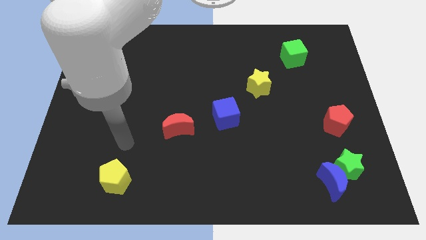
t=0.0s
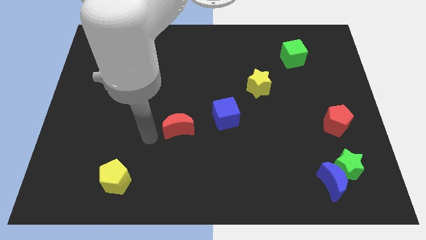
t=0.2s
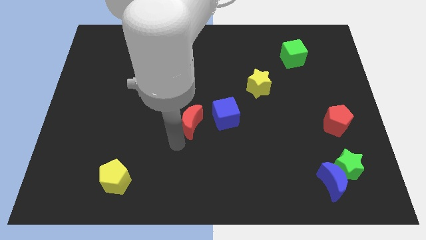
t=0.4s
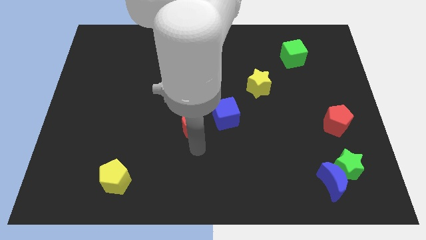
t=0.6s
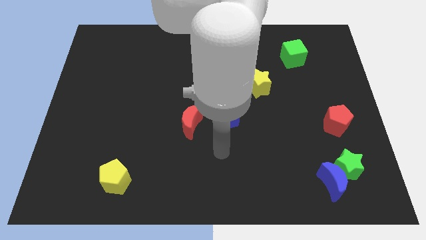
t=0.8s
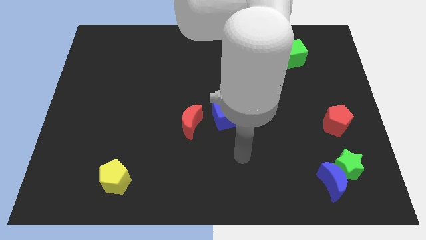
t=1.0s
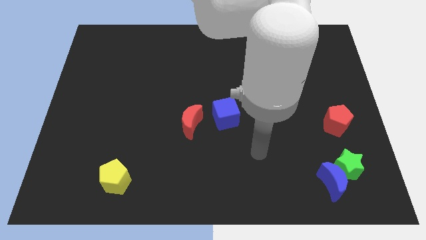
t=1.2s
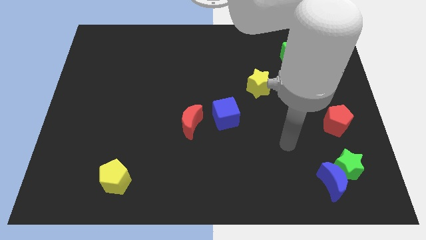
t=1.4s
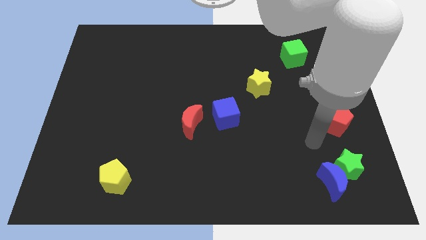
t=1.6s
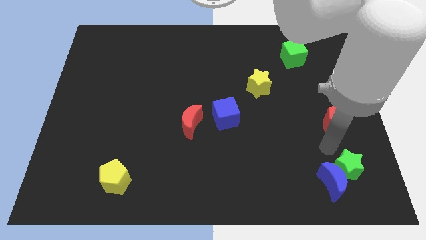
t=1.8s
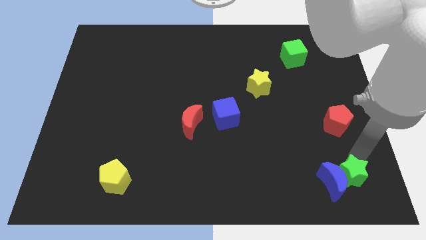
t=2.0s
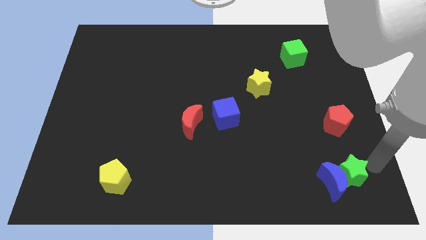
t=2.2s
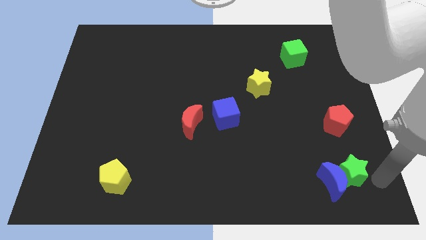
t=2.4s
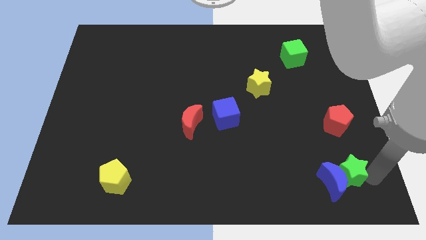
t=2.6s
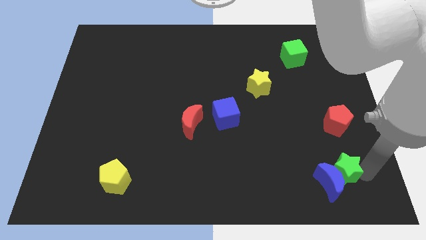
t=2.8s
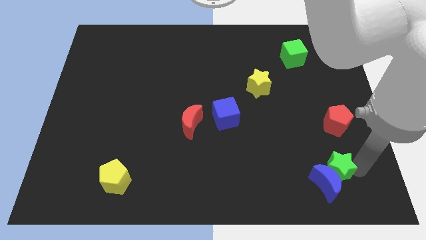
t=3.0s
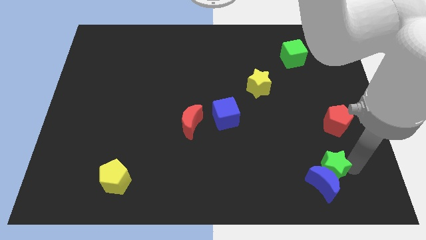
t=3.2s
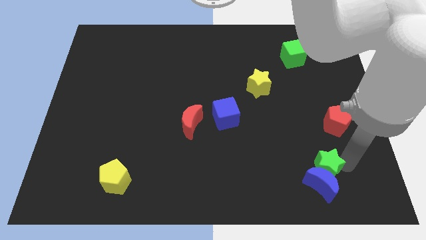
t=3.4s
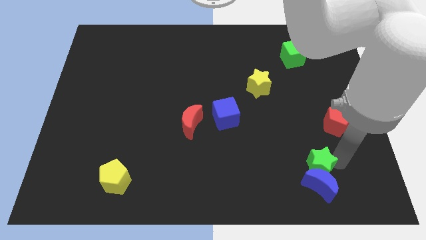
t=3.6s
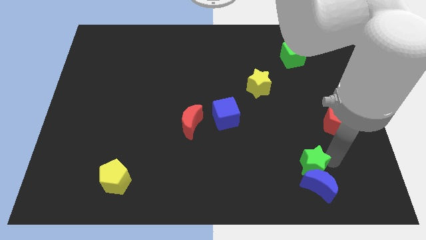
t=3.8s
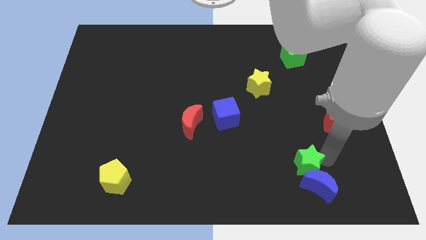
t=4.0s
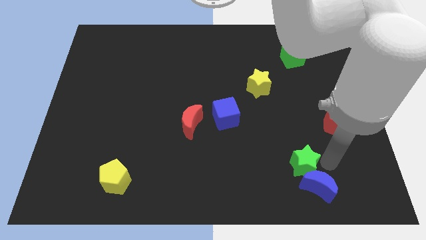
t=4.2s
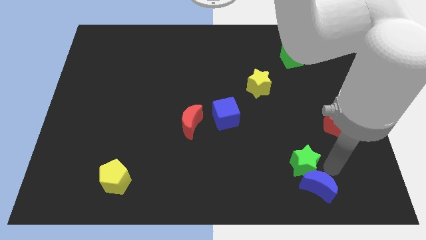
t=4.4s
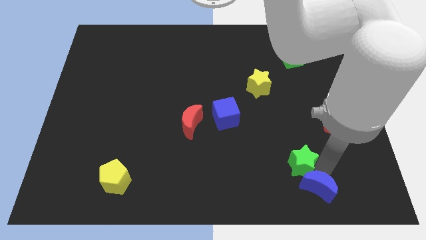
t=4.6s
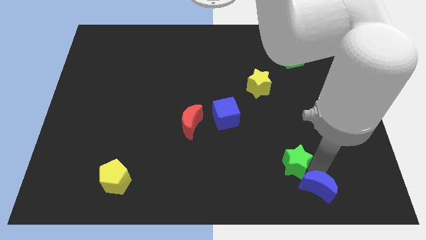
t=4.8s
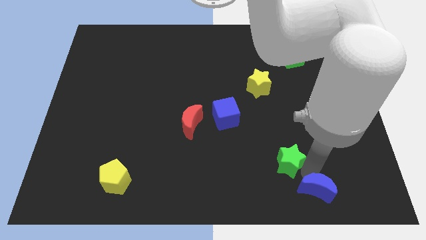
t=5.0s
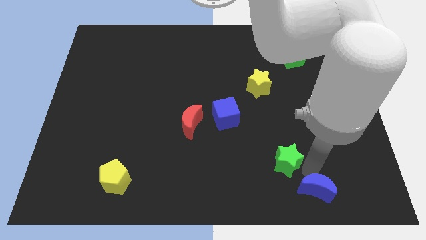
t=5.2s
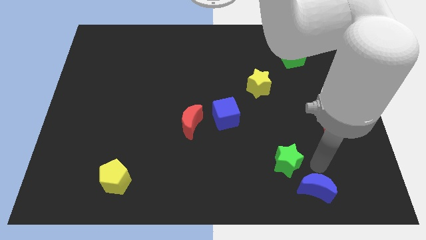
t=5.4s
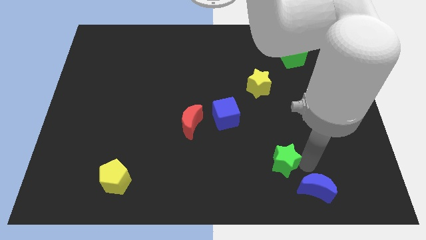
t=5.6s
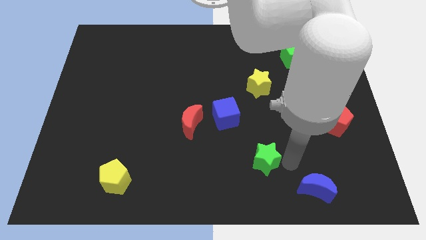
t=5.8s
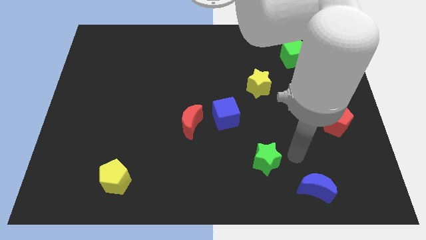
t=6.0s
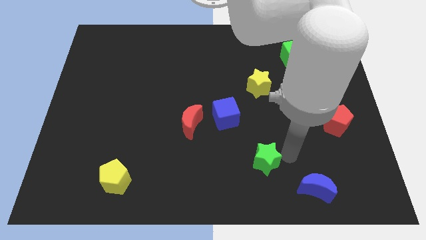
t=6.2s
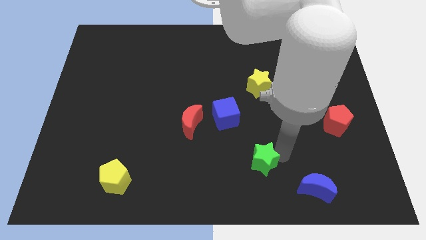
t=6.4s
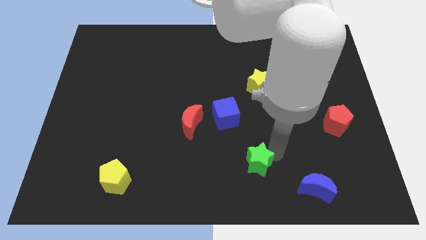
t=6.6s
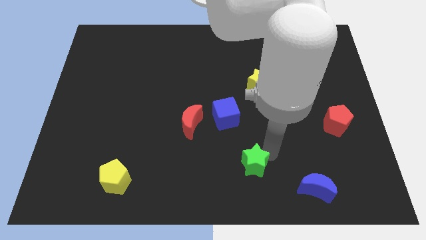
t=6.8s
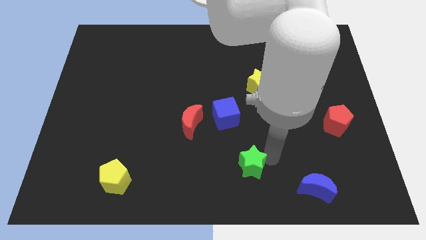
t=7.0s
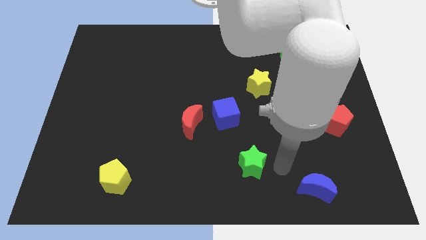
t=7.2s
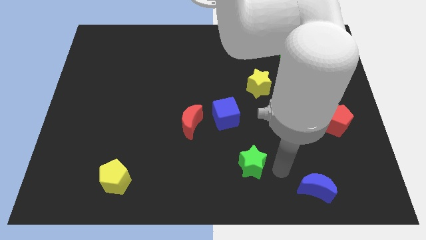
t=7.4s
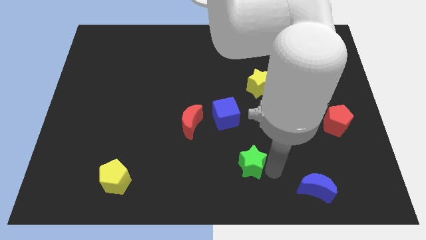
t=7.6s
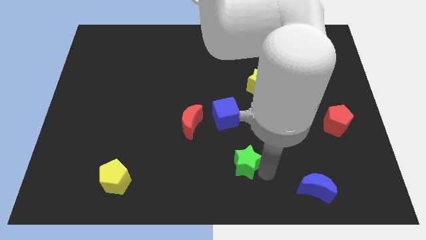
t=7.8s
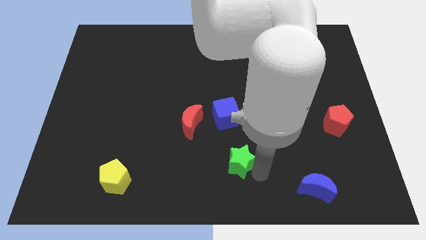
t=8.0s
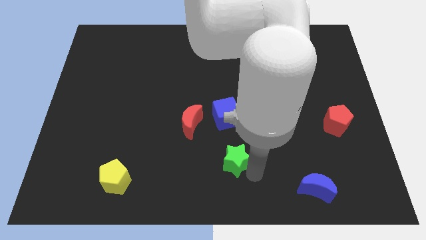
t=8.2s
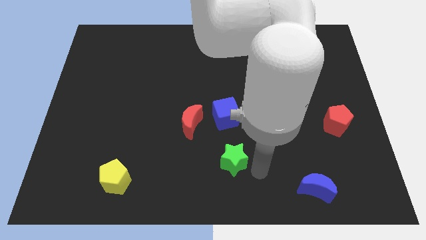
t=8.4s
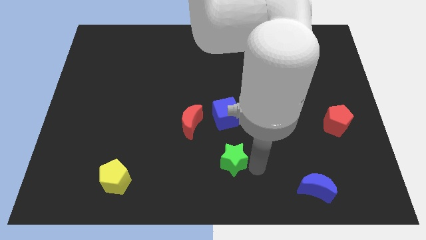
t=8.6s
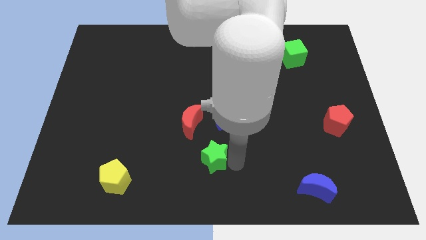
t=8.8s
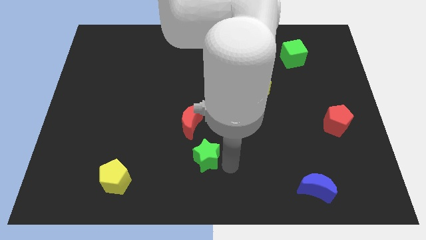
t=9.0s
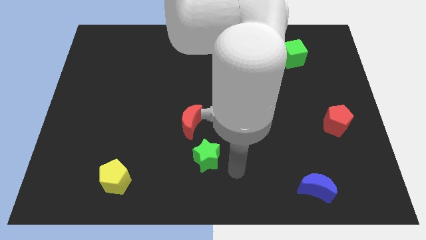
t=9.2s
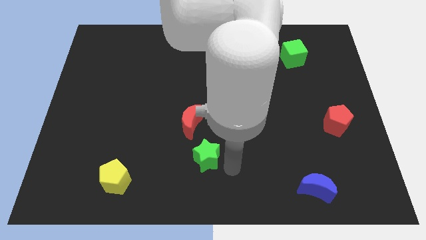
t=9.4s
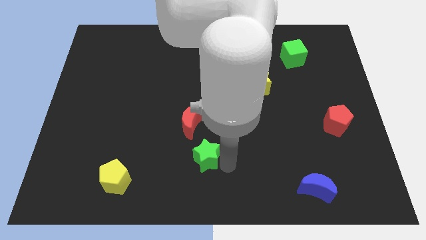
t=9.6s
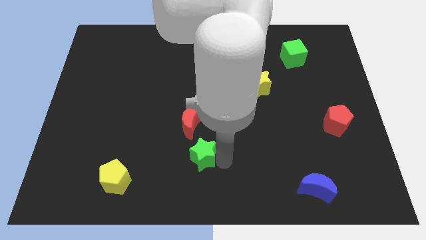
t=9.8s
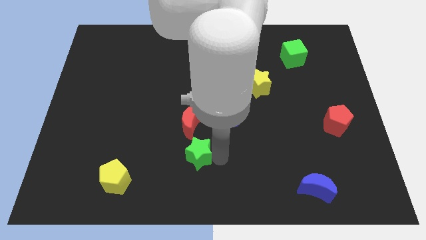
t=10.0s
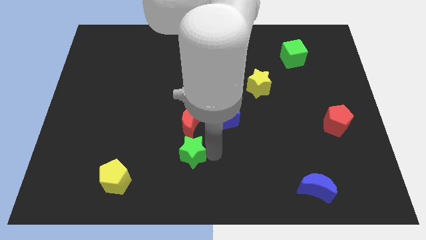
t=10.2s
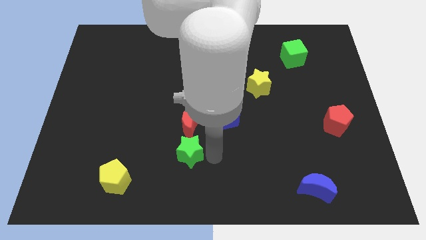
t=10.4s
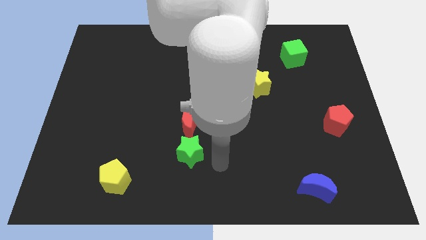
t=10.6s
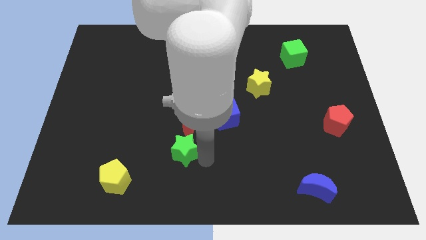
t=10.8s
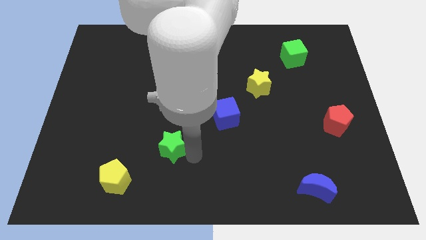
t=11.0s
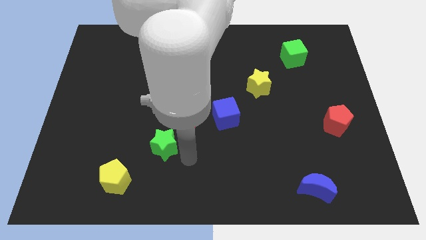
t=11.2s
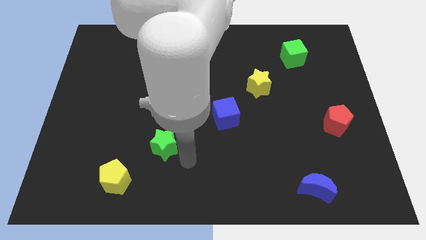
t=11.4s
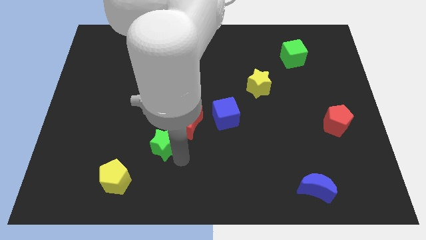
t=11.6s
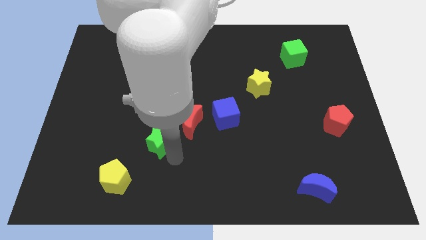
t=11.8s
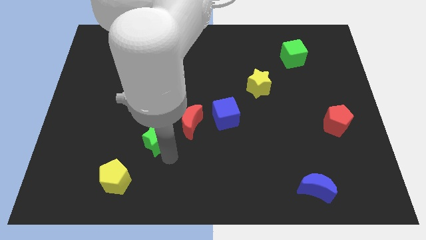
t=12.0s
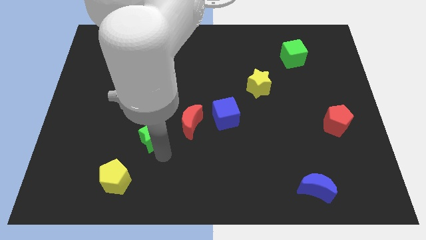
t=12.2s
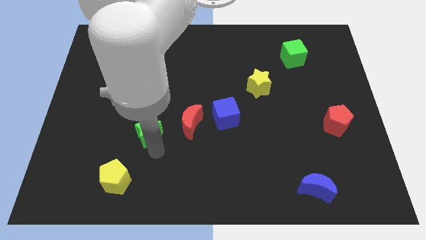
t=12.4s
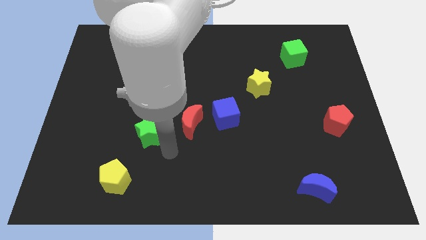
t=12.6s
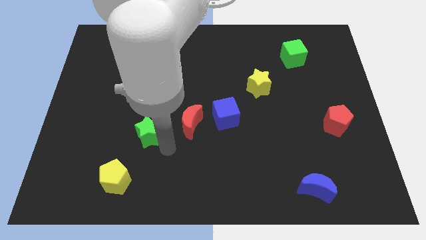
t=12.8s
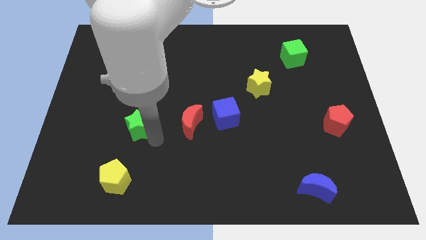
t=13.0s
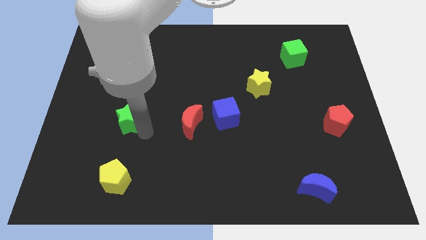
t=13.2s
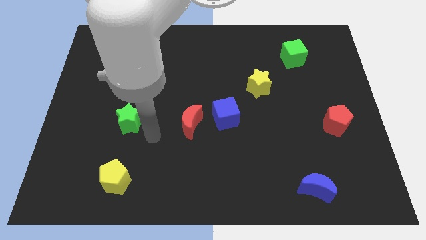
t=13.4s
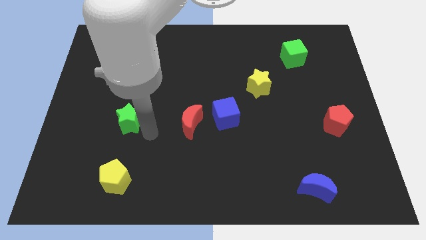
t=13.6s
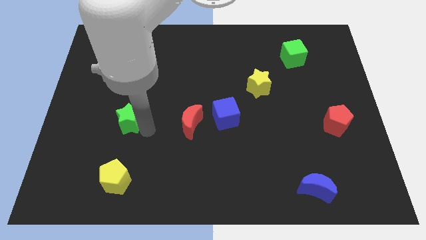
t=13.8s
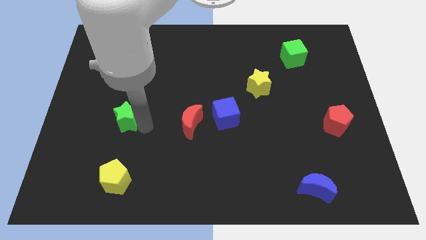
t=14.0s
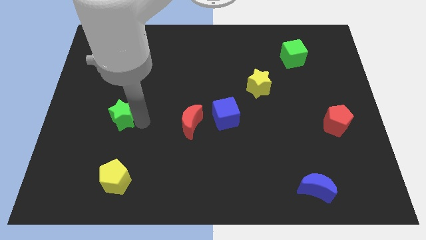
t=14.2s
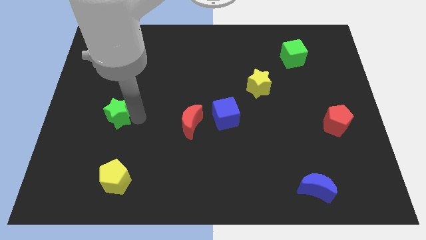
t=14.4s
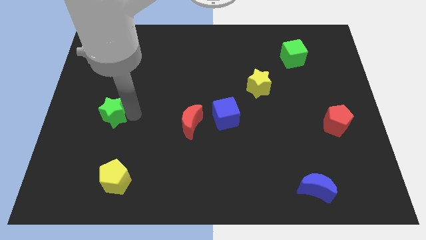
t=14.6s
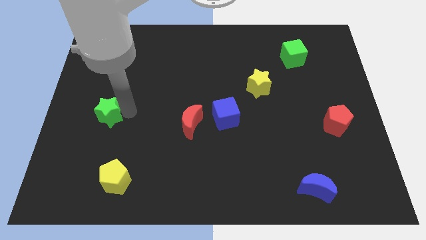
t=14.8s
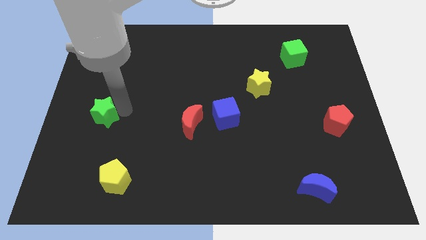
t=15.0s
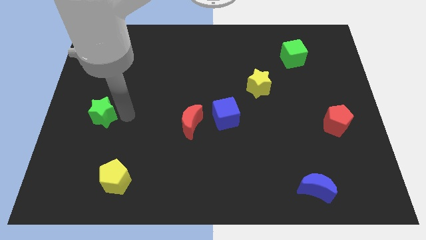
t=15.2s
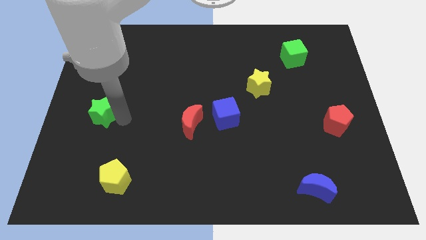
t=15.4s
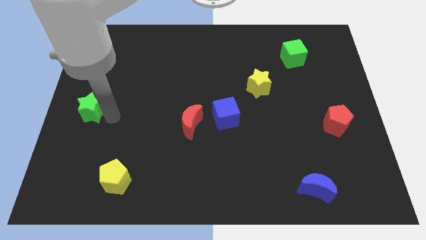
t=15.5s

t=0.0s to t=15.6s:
push the green star to the left side
